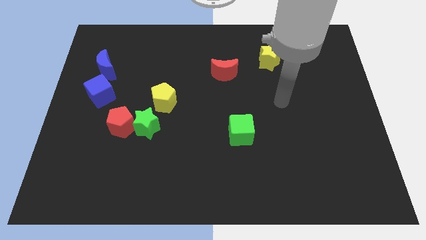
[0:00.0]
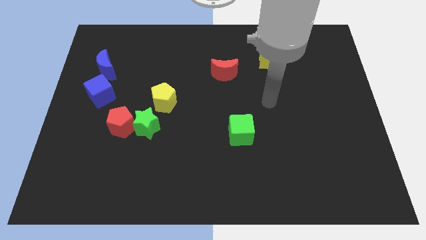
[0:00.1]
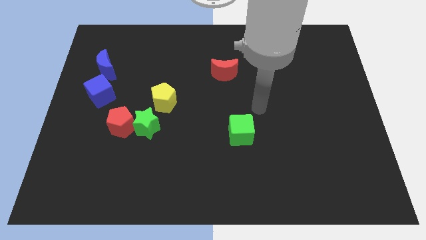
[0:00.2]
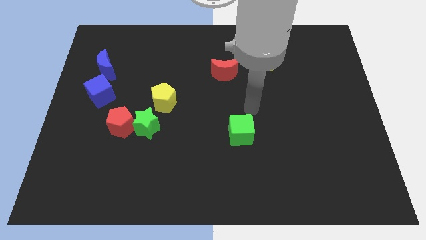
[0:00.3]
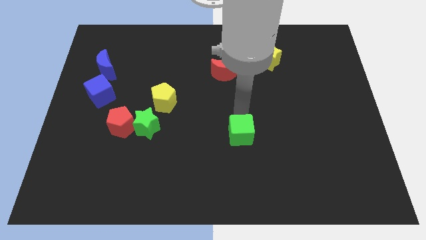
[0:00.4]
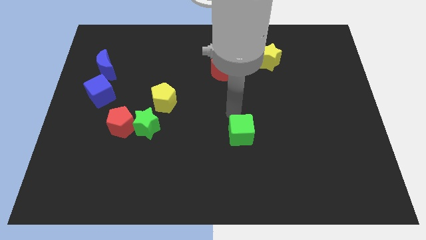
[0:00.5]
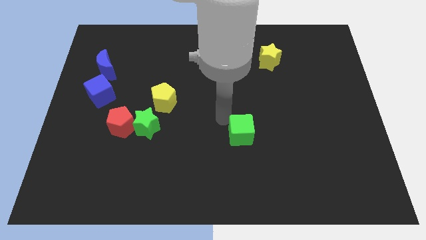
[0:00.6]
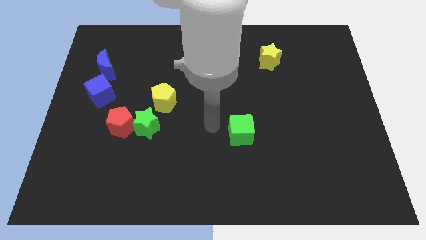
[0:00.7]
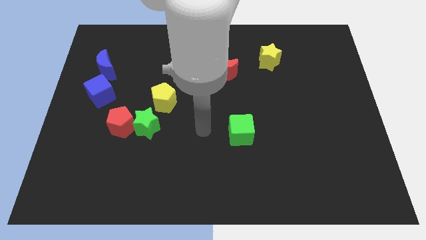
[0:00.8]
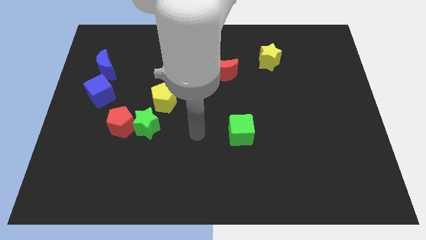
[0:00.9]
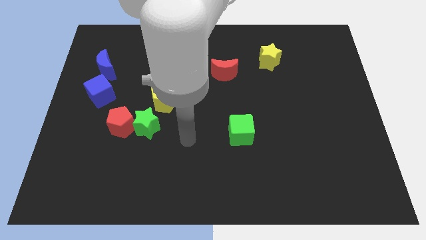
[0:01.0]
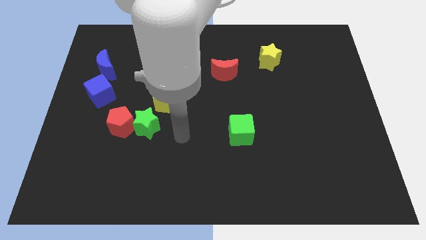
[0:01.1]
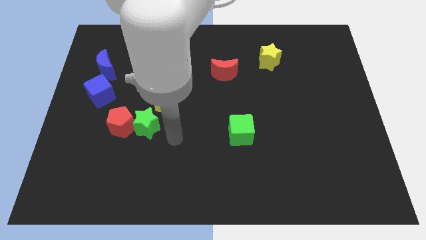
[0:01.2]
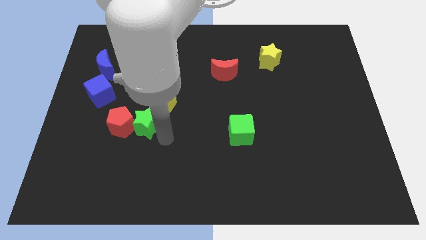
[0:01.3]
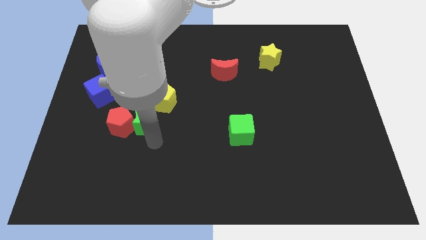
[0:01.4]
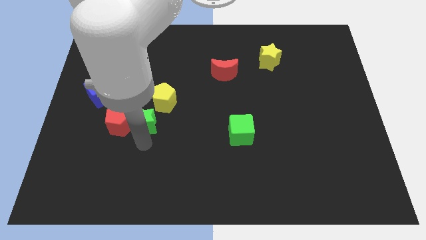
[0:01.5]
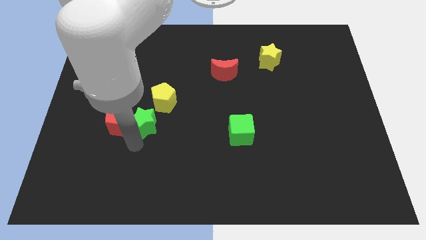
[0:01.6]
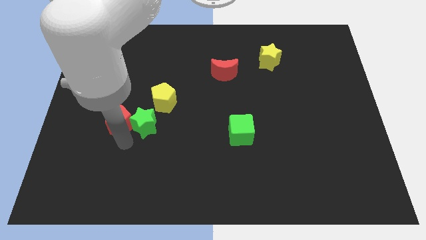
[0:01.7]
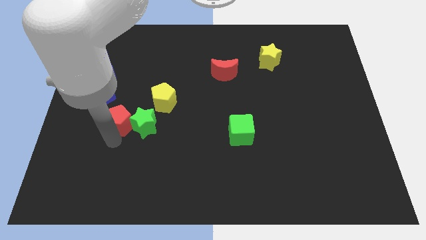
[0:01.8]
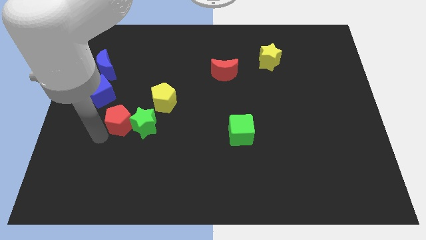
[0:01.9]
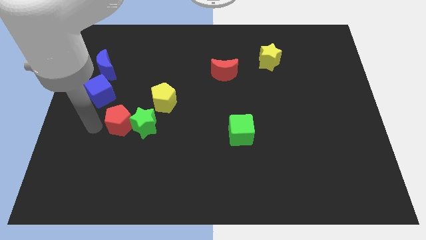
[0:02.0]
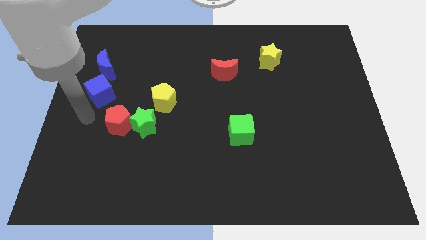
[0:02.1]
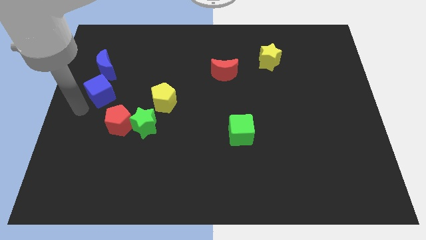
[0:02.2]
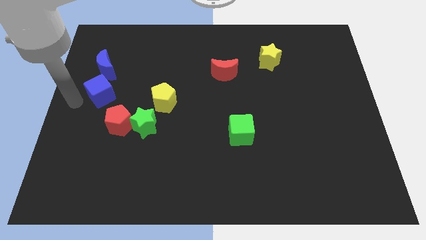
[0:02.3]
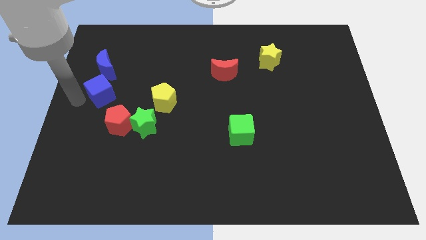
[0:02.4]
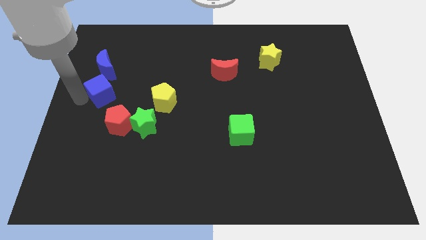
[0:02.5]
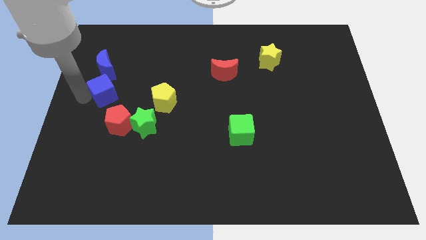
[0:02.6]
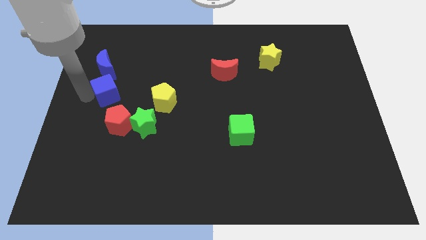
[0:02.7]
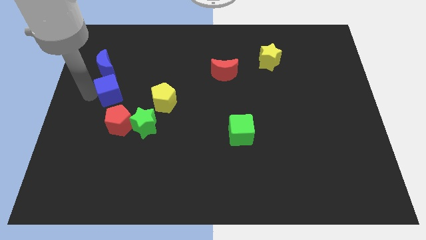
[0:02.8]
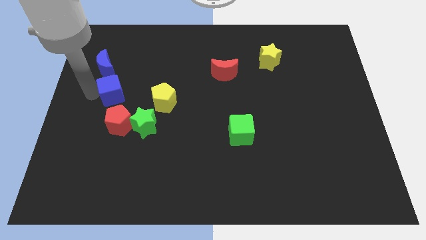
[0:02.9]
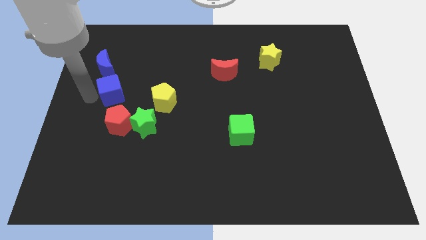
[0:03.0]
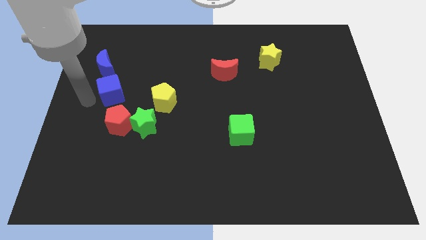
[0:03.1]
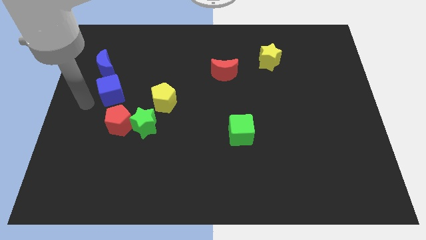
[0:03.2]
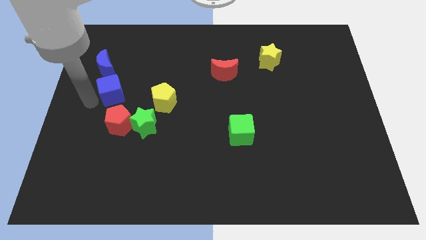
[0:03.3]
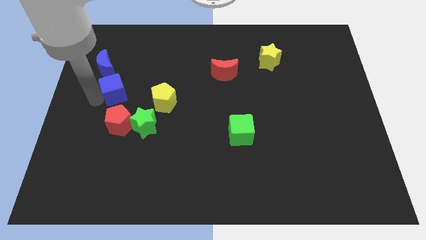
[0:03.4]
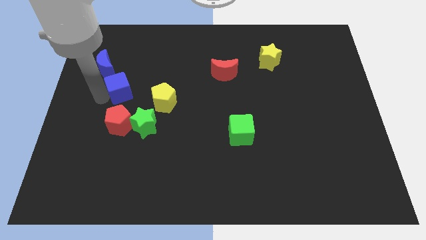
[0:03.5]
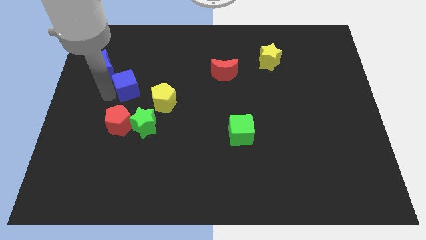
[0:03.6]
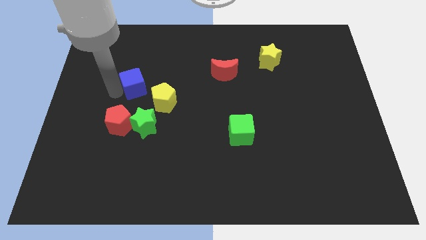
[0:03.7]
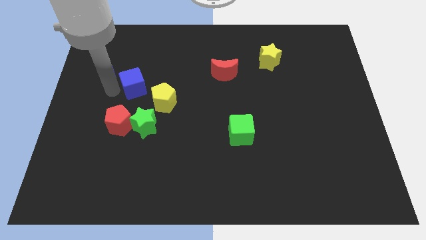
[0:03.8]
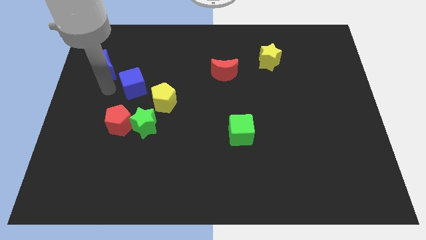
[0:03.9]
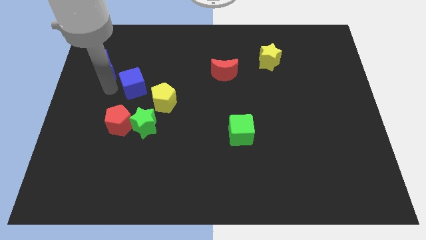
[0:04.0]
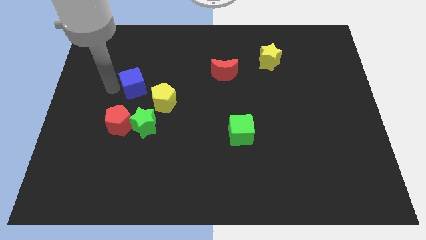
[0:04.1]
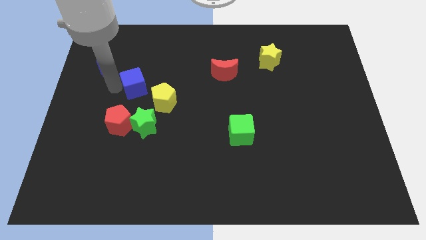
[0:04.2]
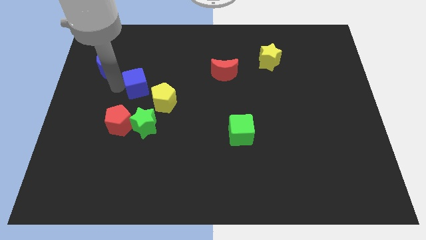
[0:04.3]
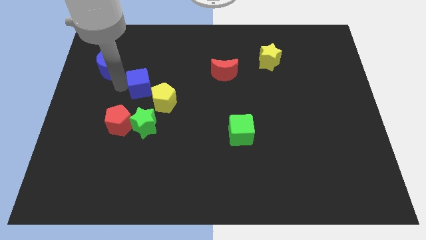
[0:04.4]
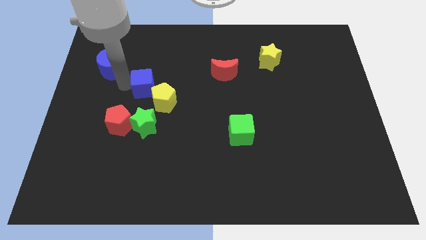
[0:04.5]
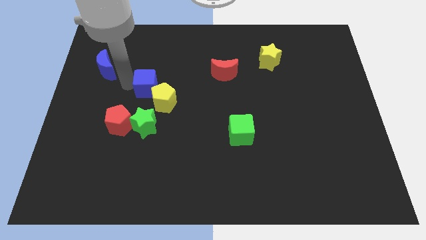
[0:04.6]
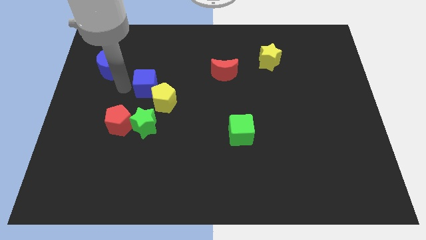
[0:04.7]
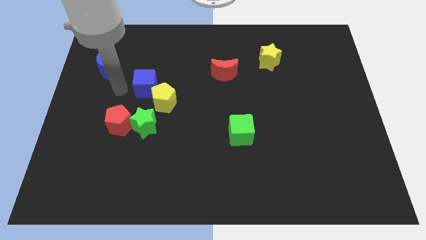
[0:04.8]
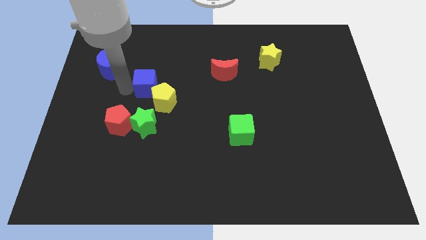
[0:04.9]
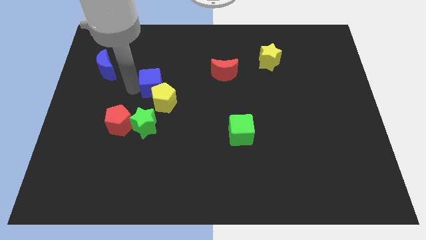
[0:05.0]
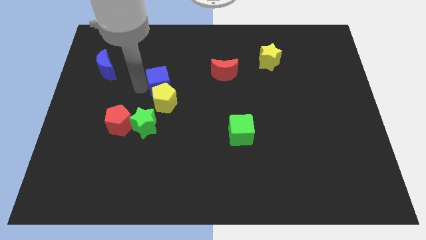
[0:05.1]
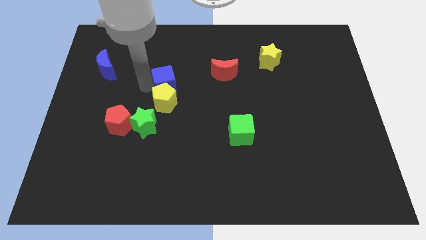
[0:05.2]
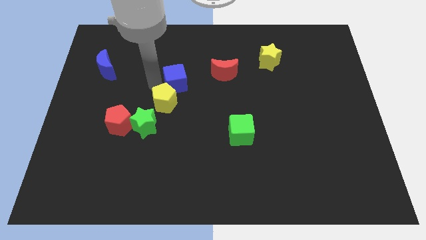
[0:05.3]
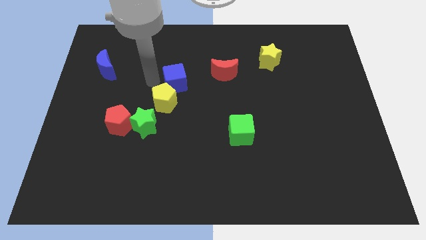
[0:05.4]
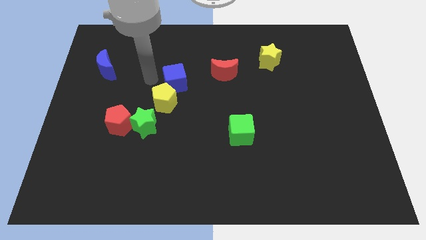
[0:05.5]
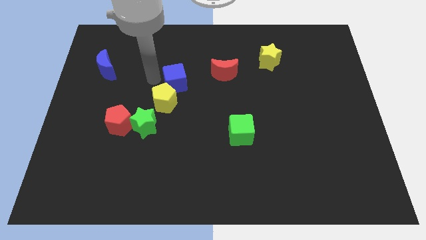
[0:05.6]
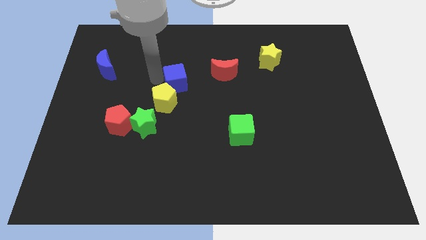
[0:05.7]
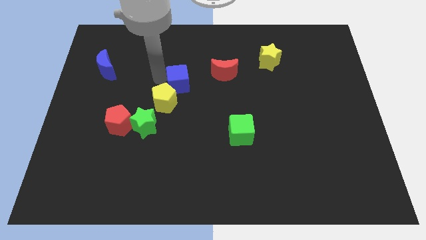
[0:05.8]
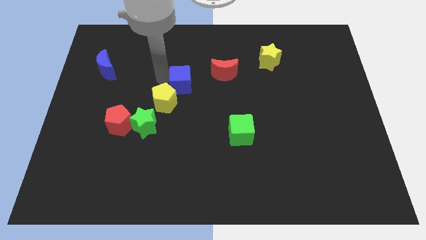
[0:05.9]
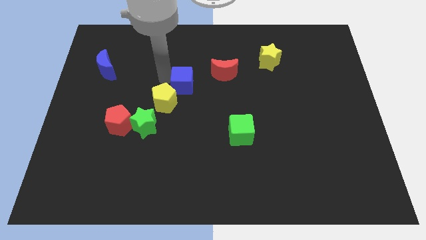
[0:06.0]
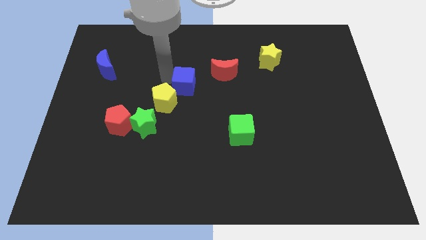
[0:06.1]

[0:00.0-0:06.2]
slide the blue cube right

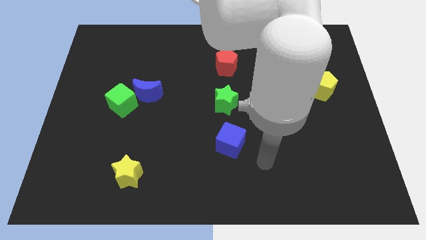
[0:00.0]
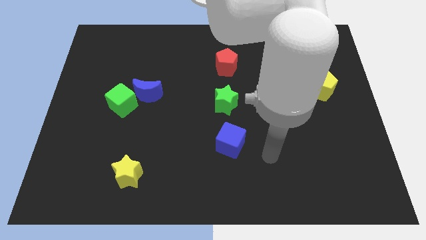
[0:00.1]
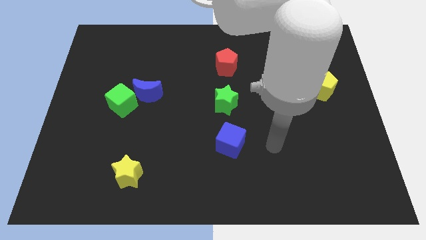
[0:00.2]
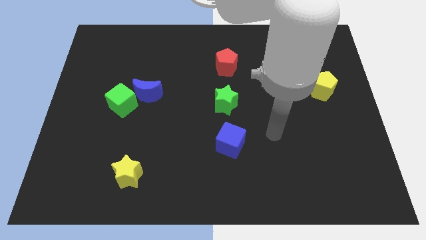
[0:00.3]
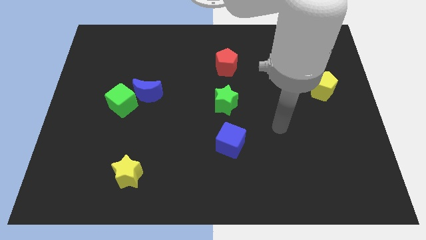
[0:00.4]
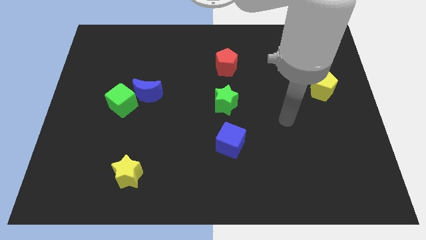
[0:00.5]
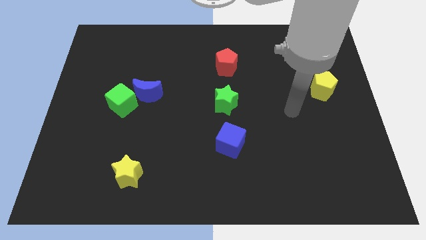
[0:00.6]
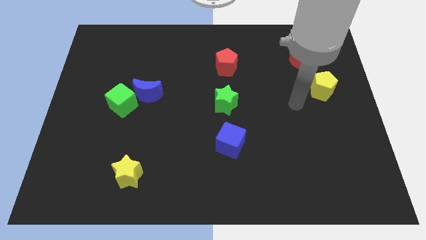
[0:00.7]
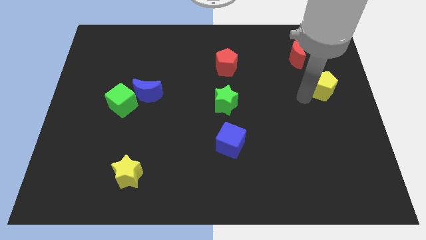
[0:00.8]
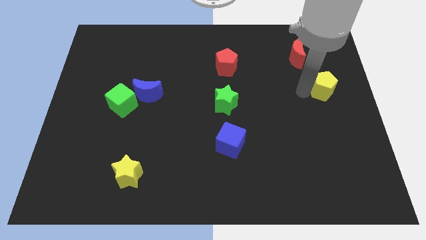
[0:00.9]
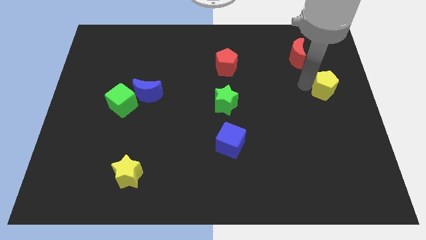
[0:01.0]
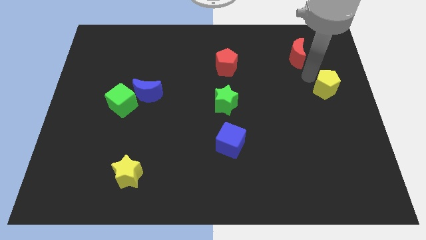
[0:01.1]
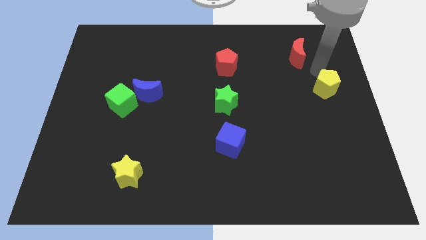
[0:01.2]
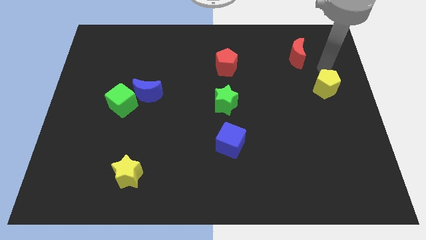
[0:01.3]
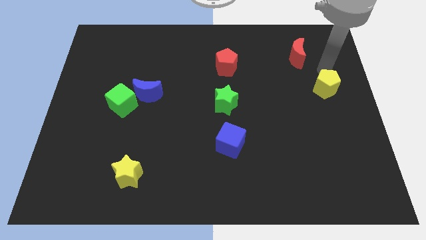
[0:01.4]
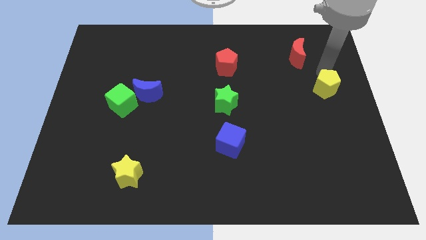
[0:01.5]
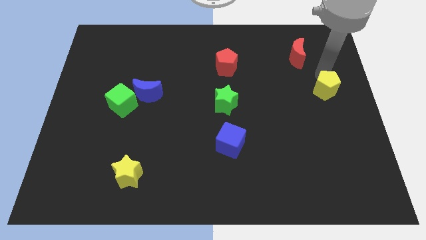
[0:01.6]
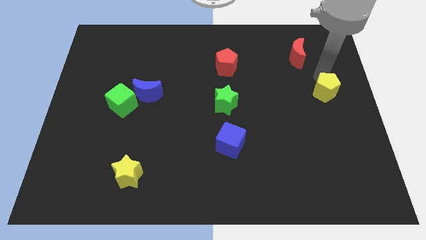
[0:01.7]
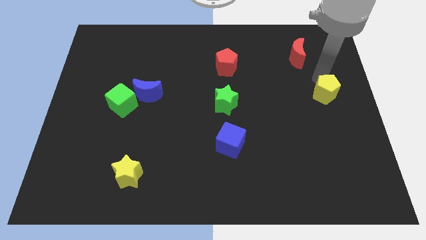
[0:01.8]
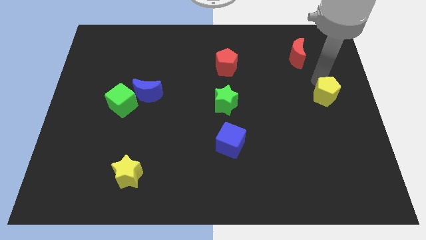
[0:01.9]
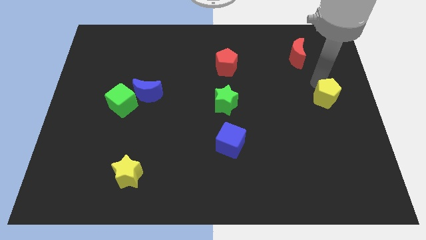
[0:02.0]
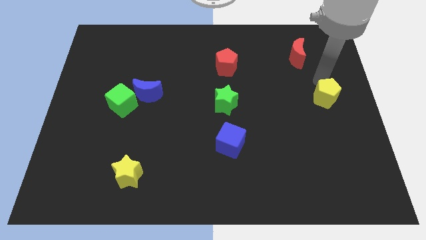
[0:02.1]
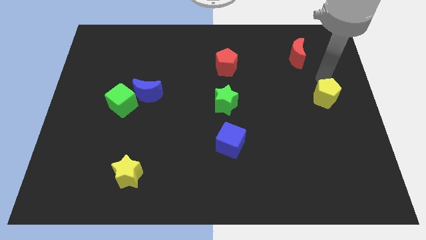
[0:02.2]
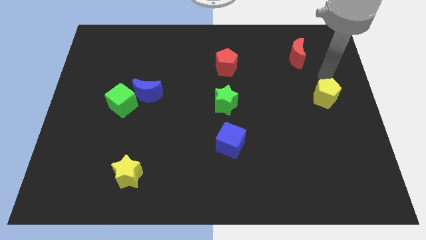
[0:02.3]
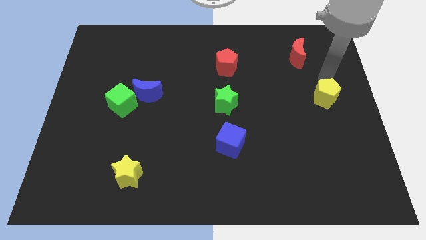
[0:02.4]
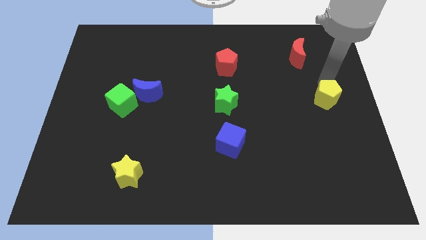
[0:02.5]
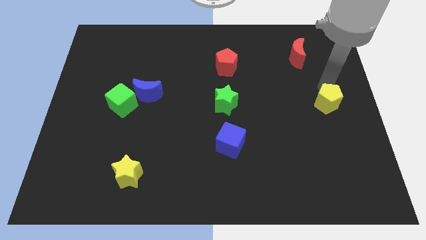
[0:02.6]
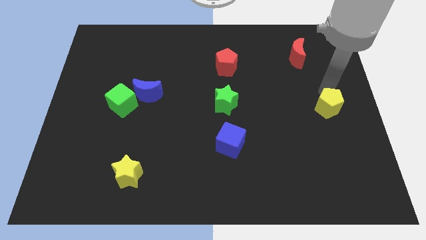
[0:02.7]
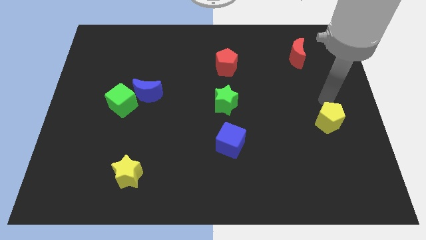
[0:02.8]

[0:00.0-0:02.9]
slightly push the yellow pentagon downwards
